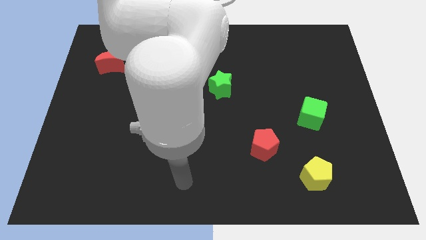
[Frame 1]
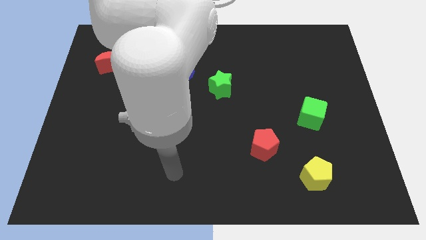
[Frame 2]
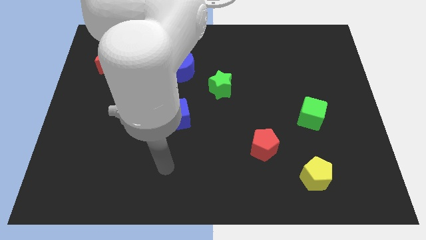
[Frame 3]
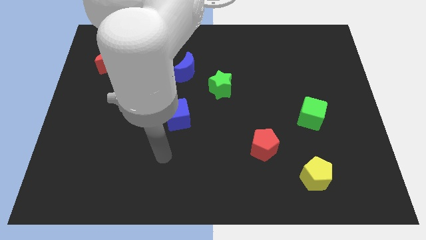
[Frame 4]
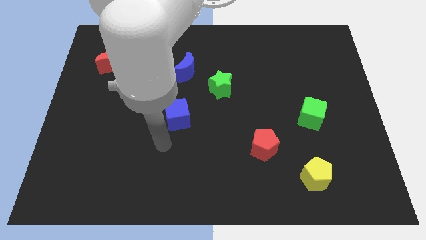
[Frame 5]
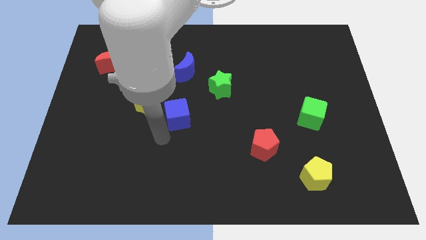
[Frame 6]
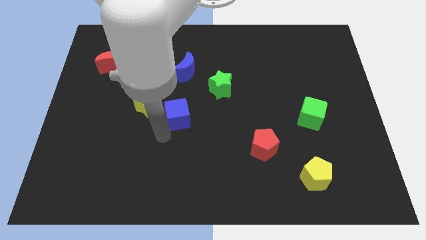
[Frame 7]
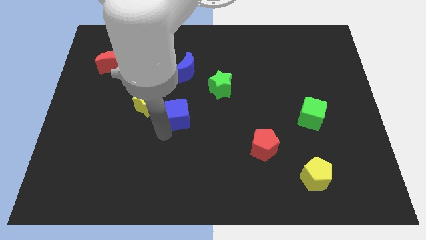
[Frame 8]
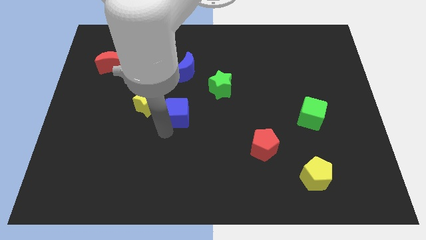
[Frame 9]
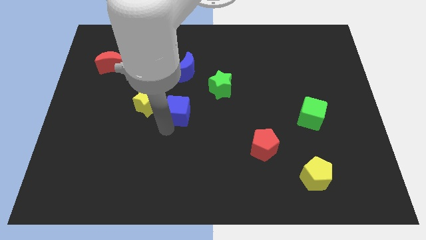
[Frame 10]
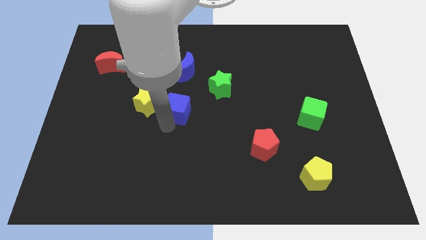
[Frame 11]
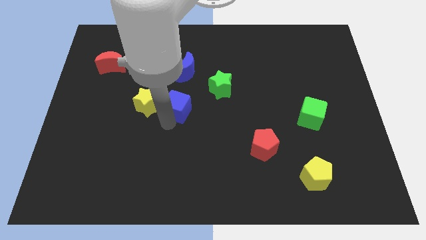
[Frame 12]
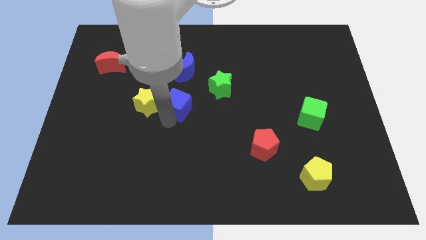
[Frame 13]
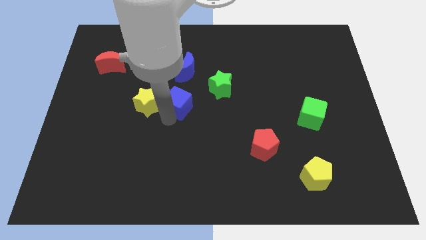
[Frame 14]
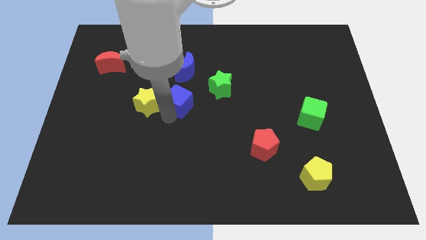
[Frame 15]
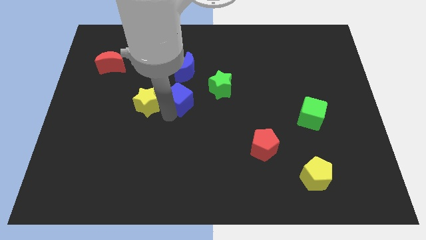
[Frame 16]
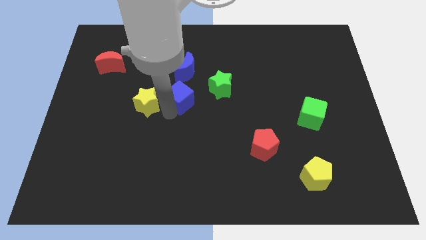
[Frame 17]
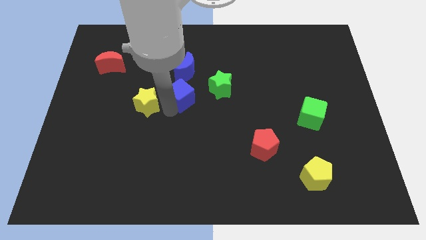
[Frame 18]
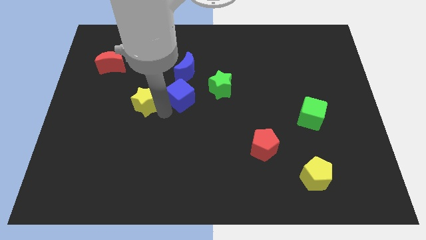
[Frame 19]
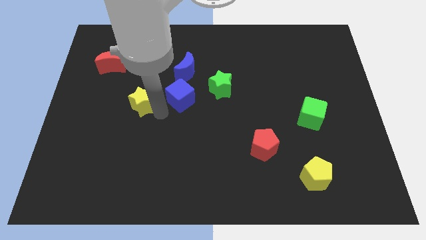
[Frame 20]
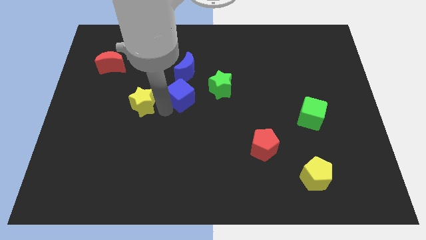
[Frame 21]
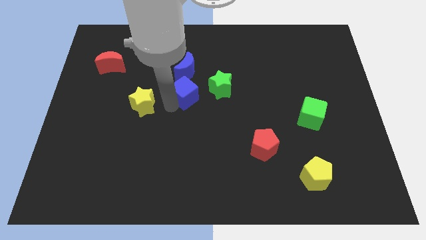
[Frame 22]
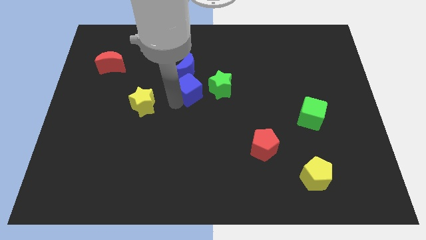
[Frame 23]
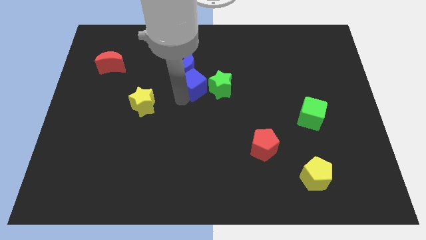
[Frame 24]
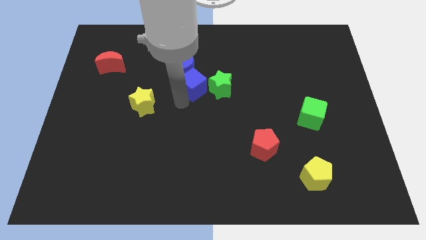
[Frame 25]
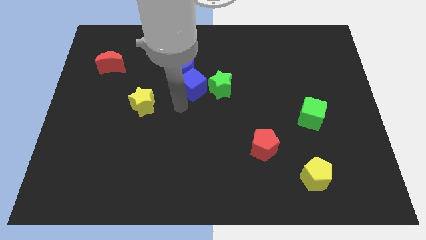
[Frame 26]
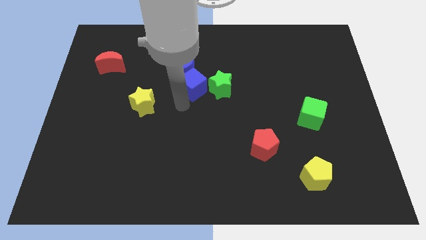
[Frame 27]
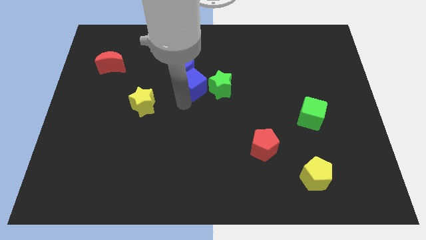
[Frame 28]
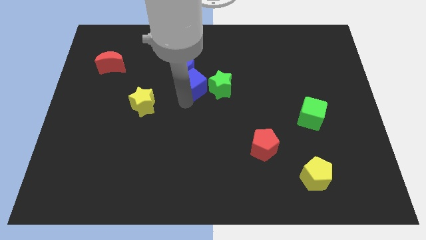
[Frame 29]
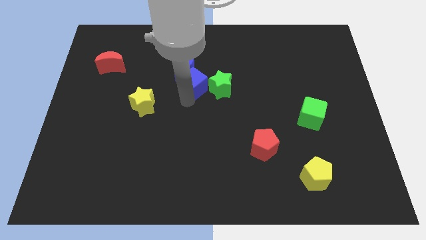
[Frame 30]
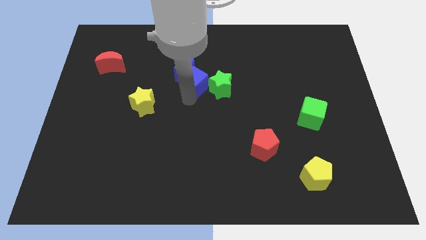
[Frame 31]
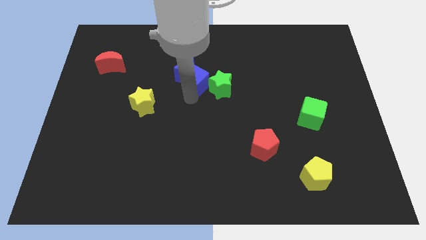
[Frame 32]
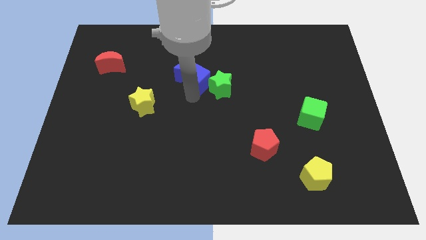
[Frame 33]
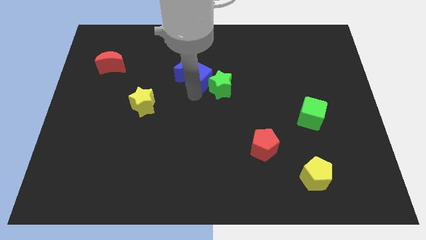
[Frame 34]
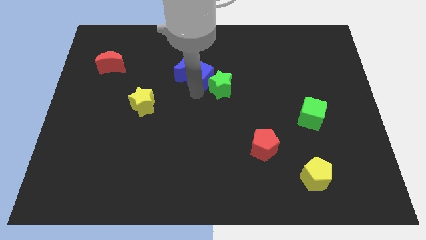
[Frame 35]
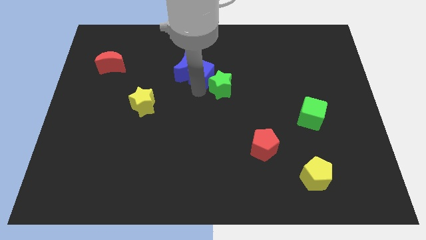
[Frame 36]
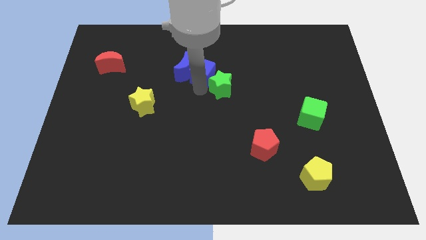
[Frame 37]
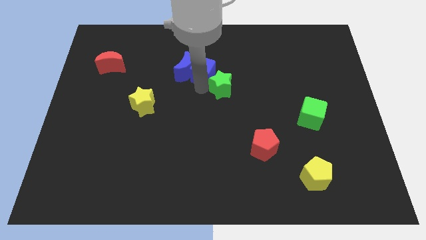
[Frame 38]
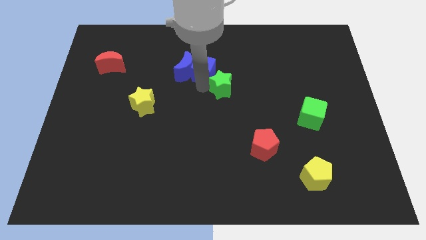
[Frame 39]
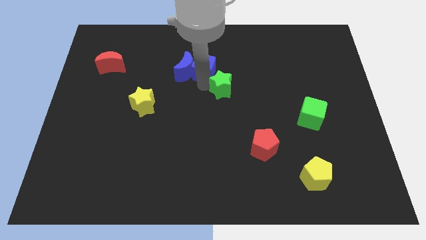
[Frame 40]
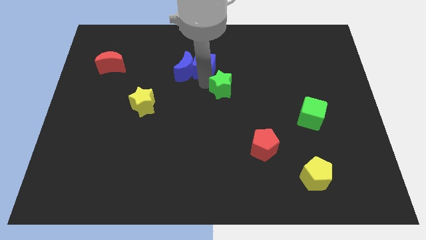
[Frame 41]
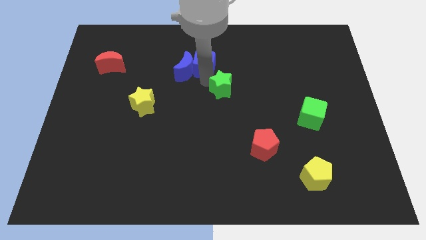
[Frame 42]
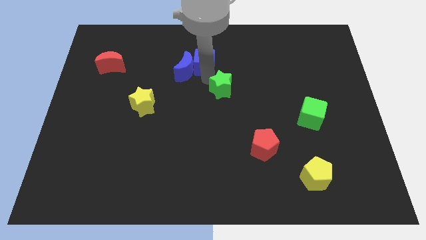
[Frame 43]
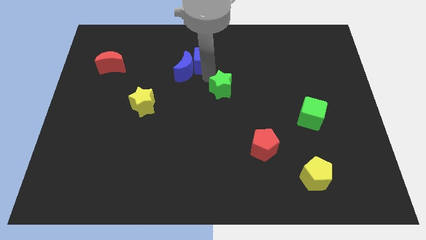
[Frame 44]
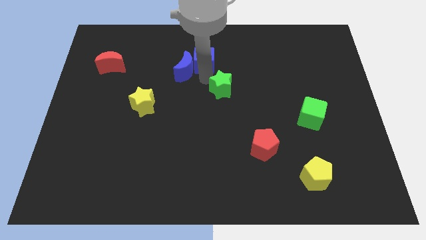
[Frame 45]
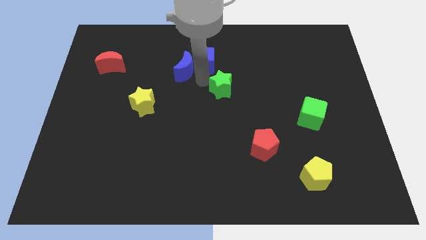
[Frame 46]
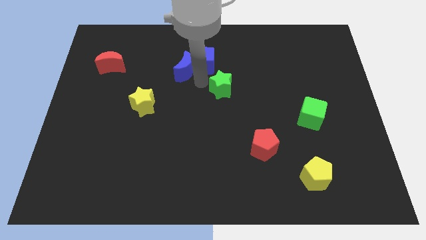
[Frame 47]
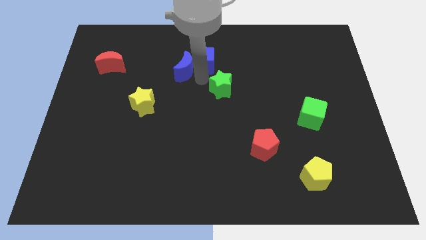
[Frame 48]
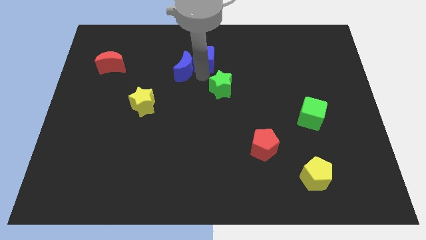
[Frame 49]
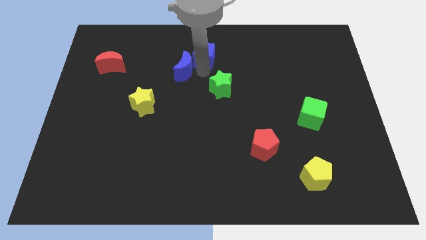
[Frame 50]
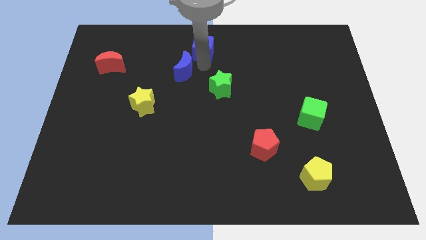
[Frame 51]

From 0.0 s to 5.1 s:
move the blue cube to the top

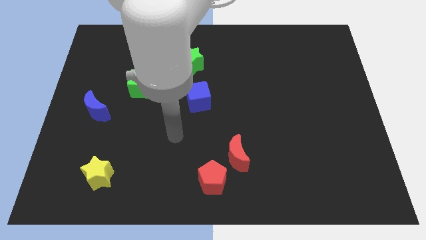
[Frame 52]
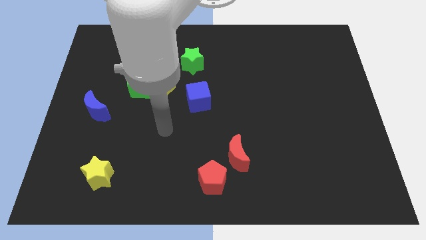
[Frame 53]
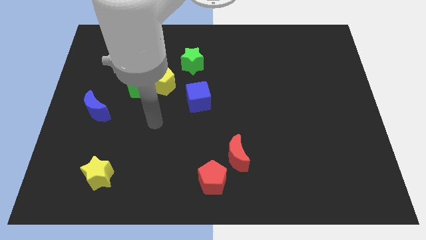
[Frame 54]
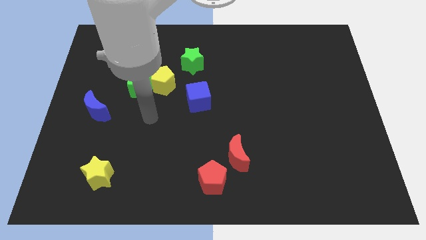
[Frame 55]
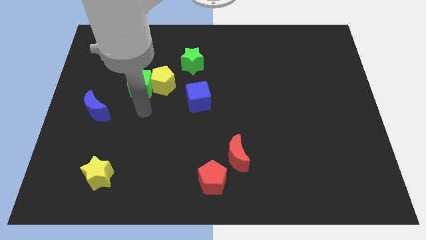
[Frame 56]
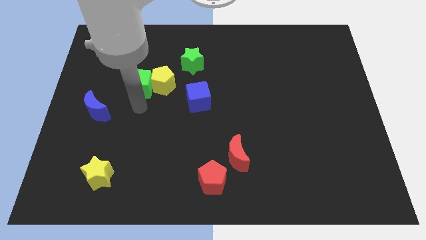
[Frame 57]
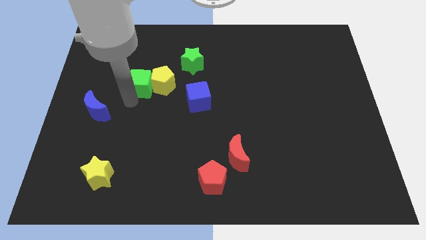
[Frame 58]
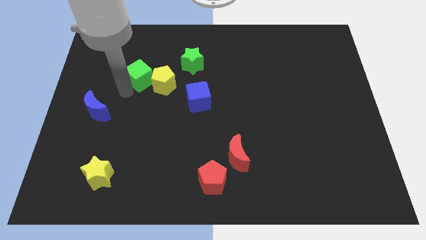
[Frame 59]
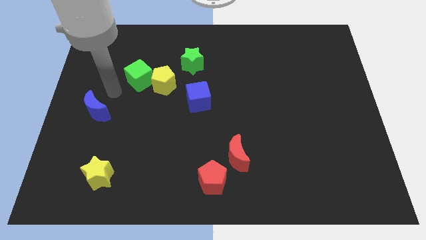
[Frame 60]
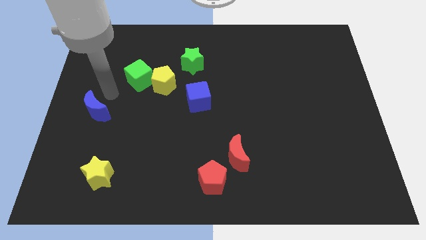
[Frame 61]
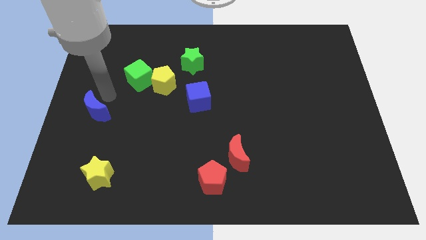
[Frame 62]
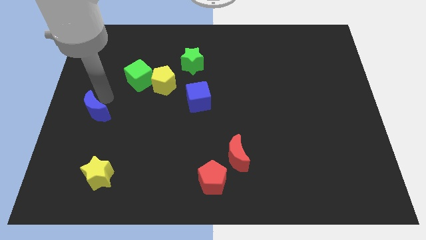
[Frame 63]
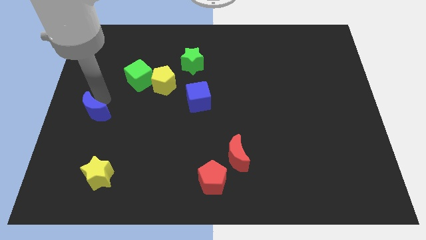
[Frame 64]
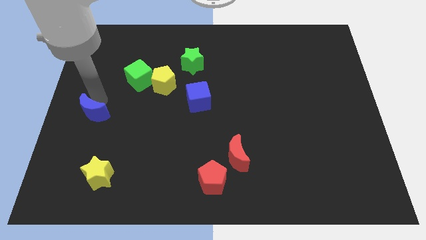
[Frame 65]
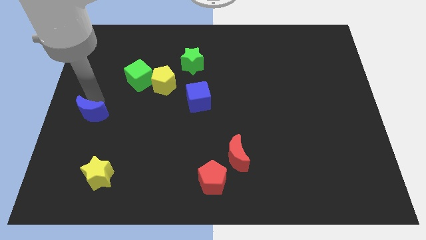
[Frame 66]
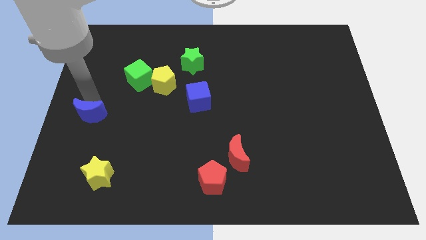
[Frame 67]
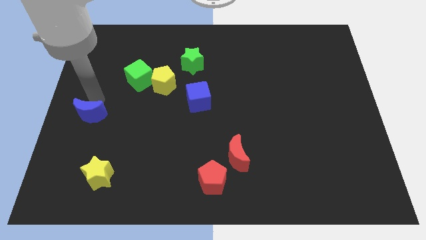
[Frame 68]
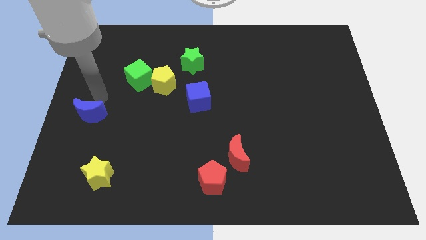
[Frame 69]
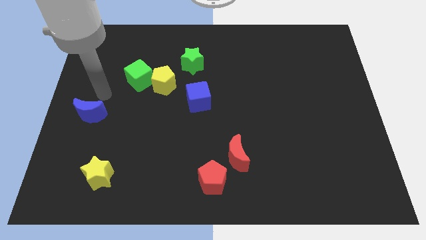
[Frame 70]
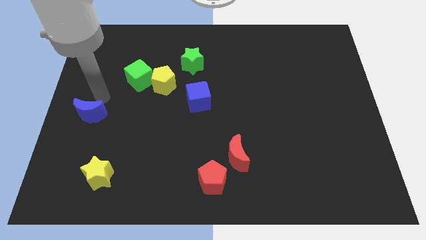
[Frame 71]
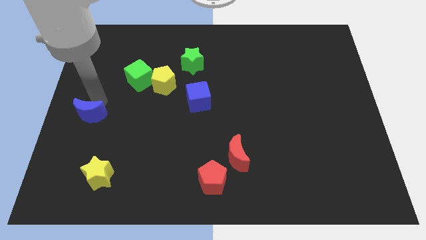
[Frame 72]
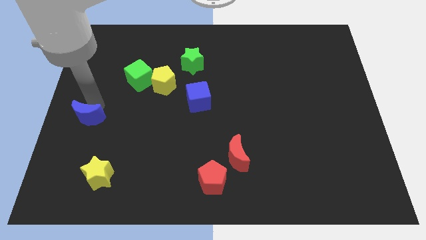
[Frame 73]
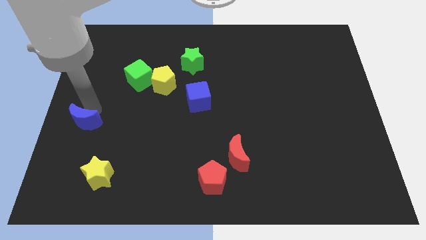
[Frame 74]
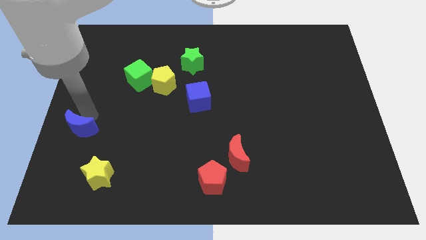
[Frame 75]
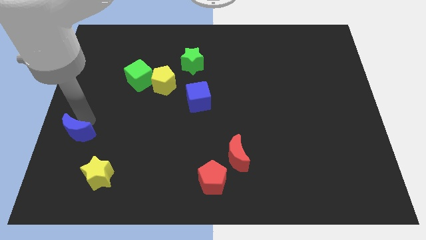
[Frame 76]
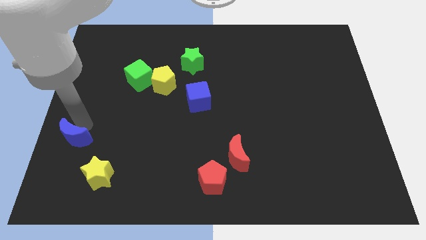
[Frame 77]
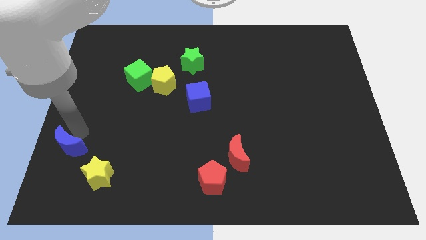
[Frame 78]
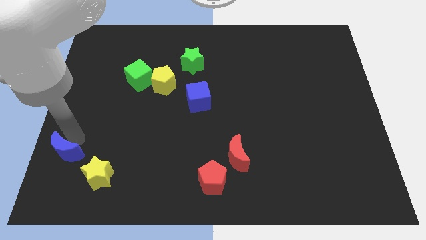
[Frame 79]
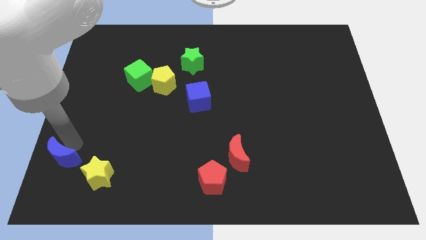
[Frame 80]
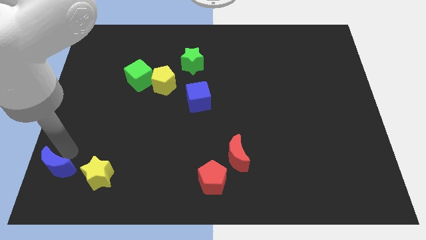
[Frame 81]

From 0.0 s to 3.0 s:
move the blue moon to the bottom left
